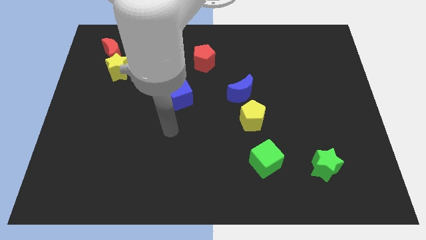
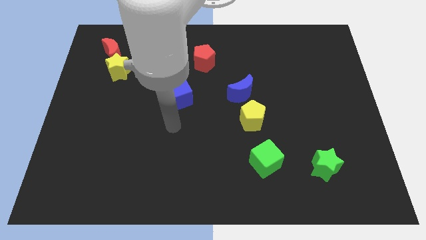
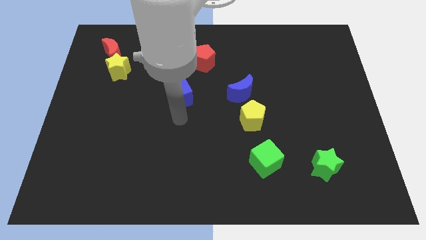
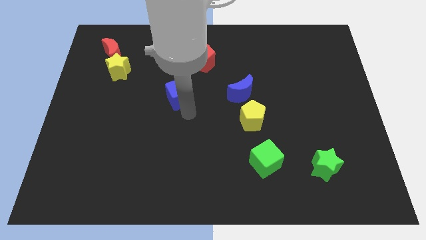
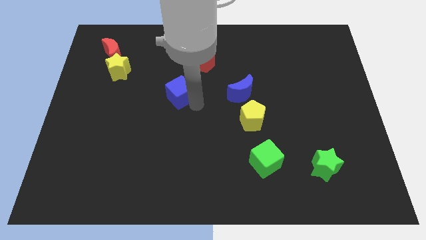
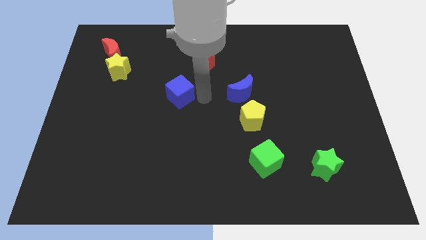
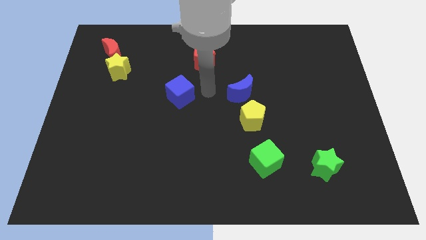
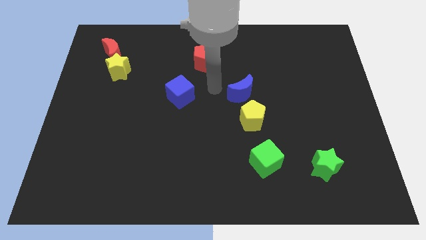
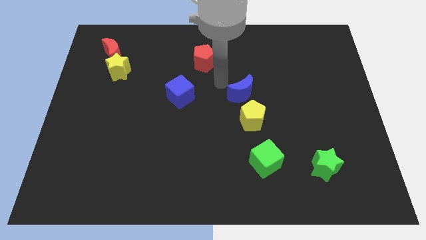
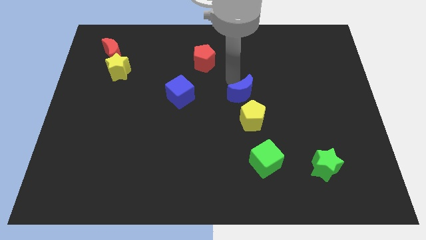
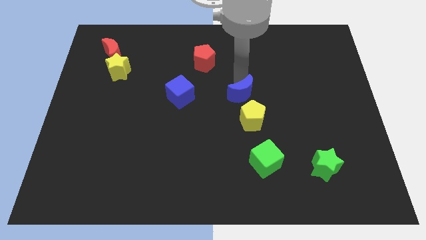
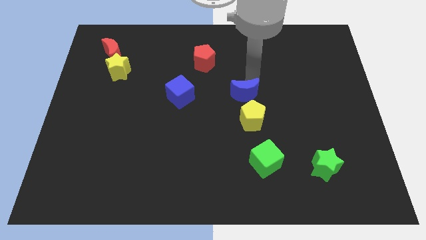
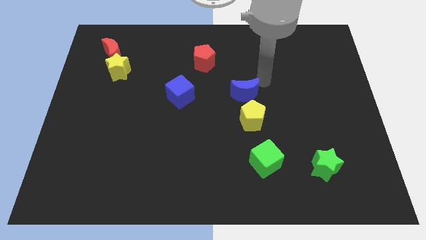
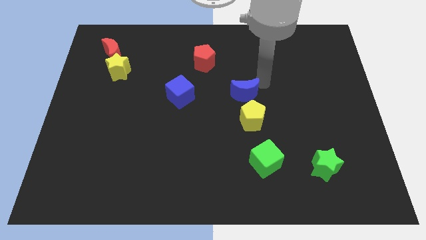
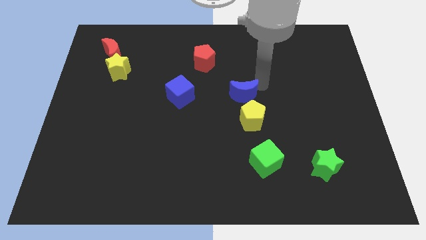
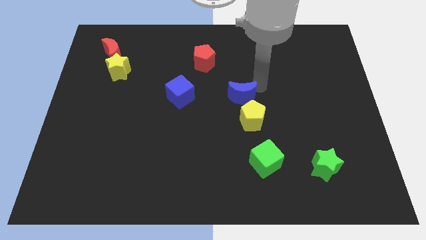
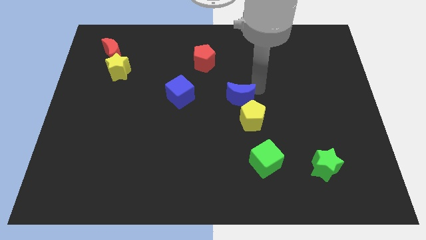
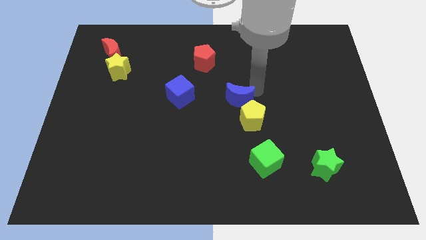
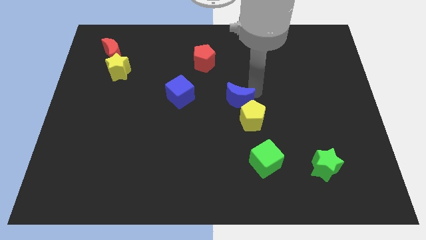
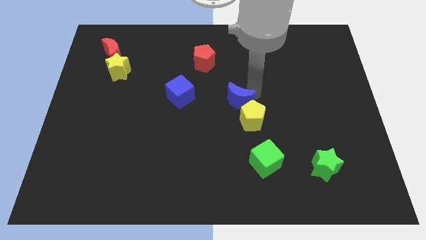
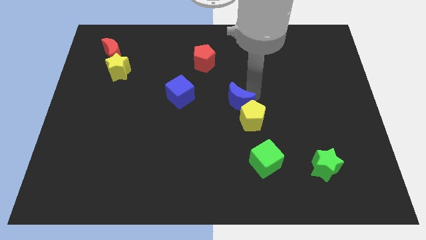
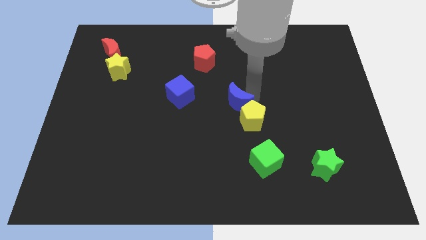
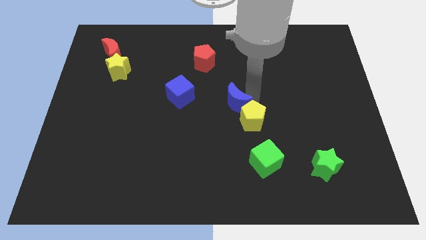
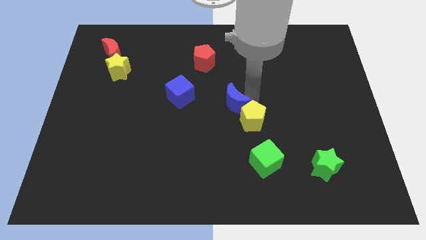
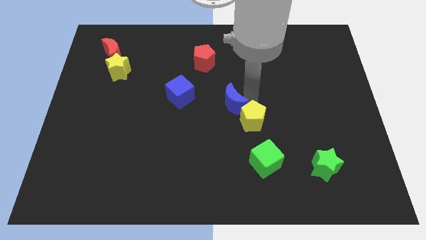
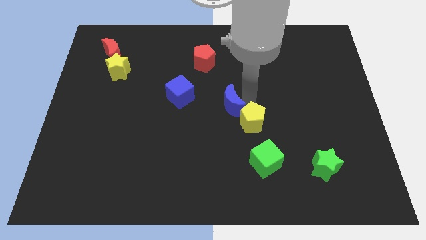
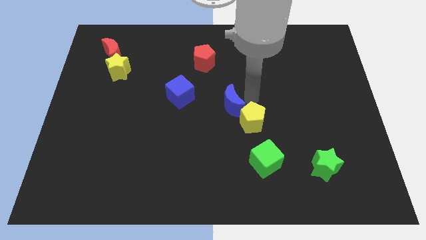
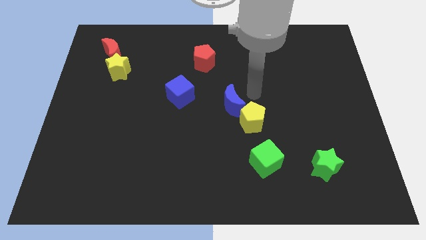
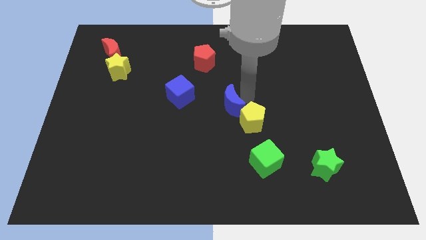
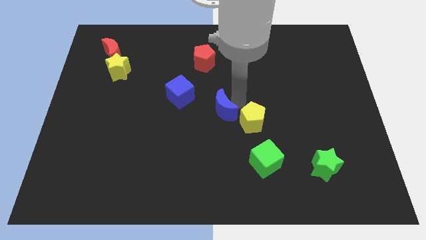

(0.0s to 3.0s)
move the blue moon down and left diagonally a bit

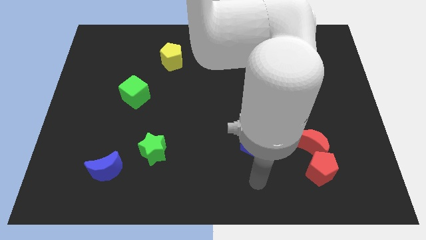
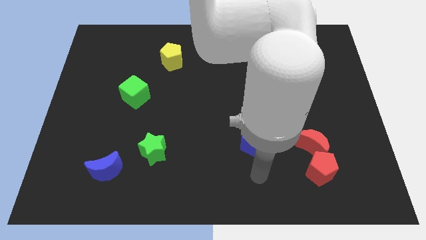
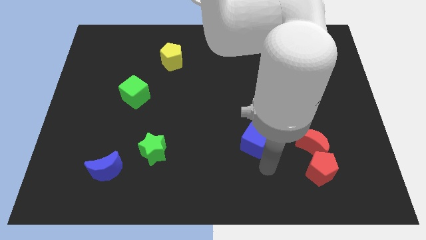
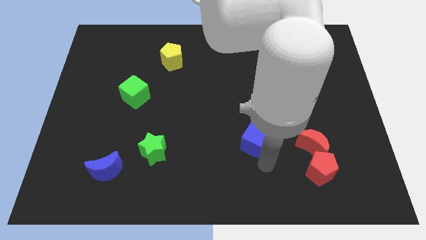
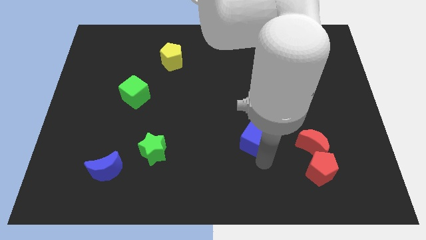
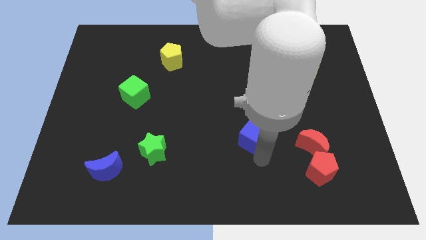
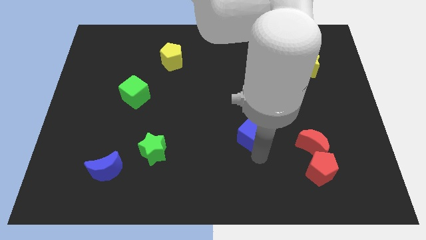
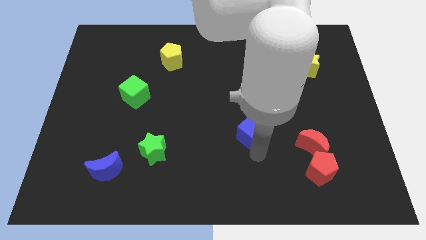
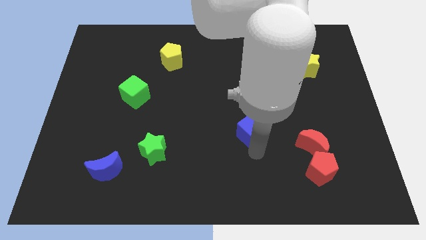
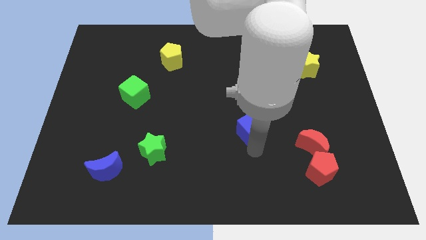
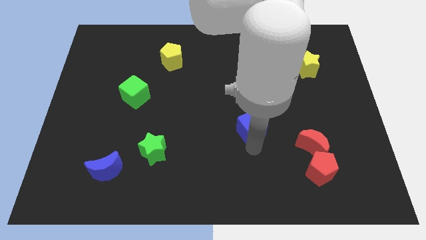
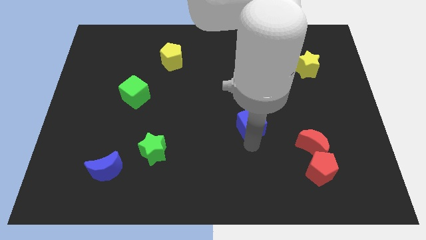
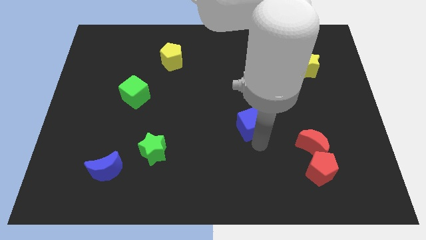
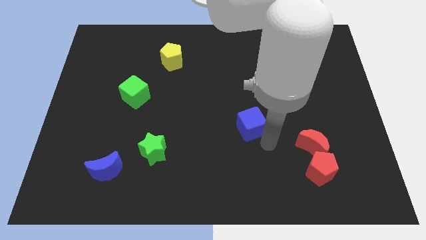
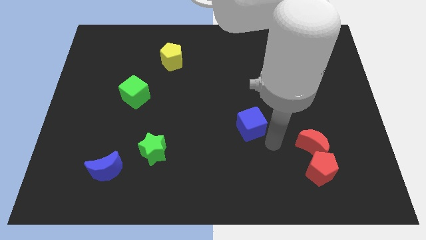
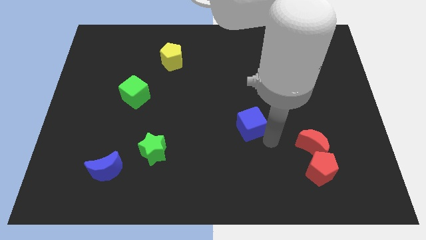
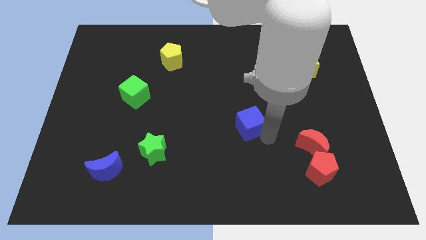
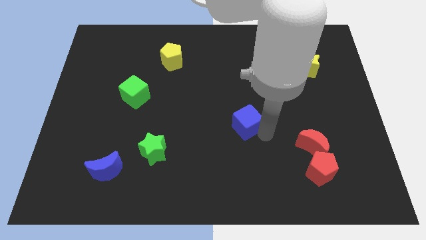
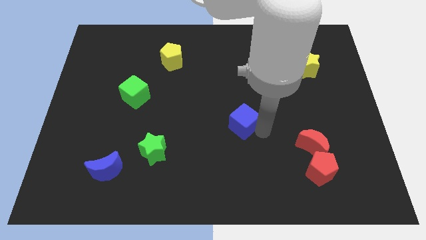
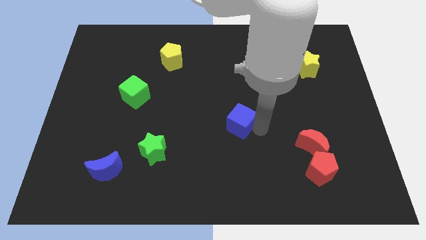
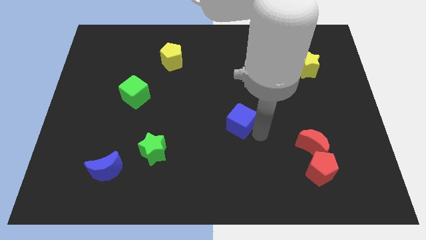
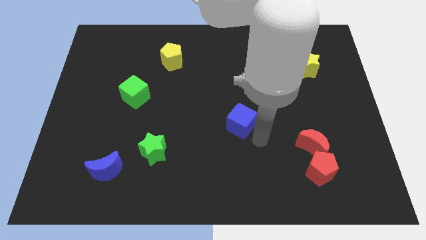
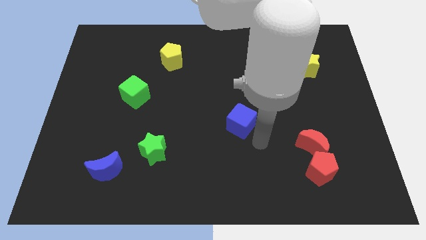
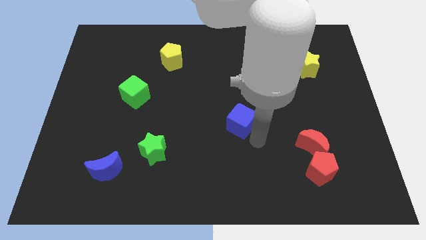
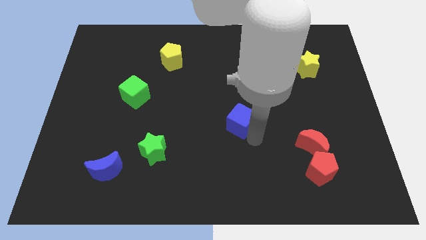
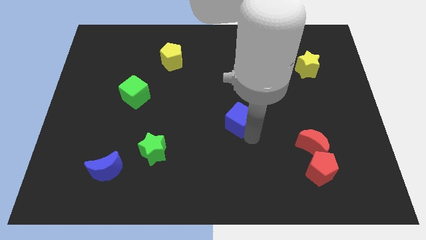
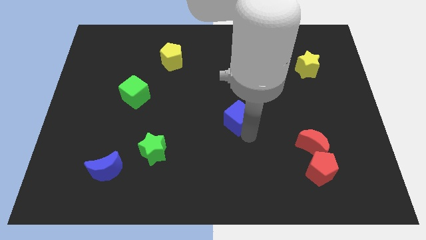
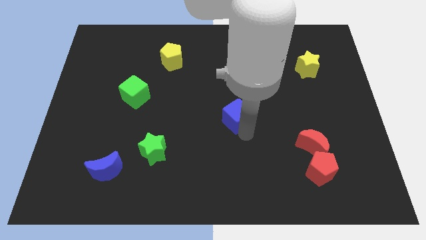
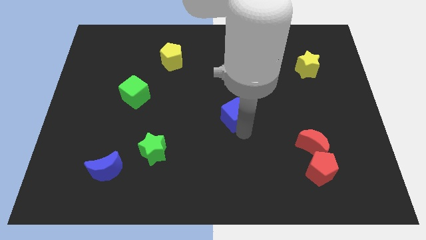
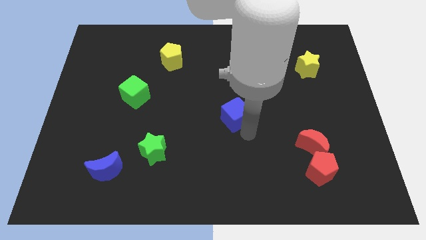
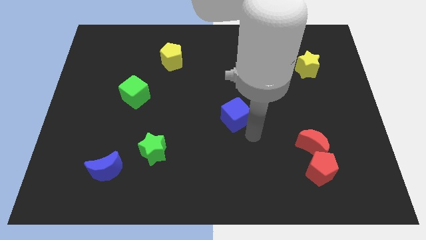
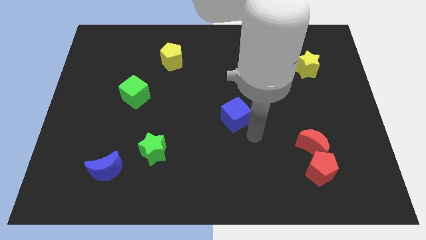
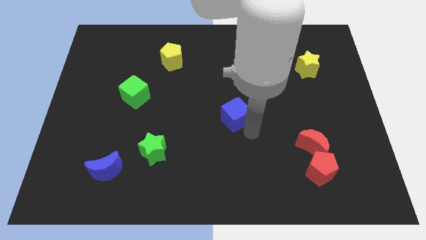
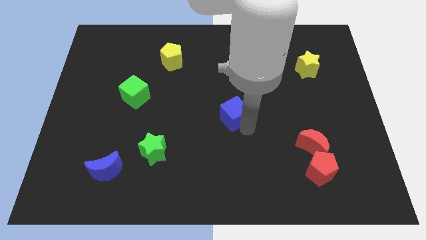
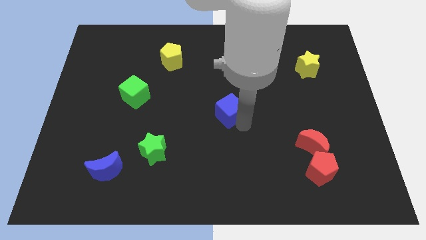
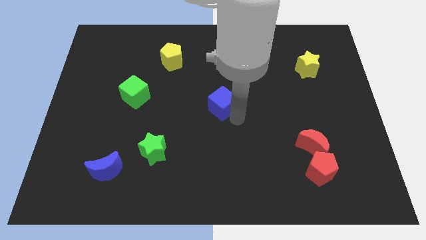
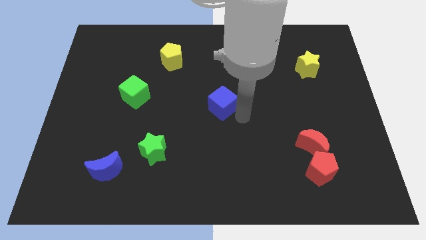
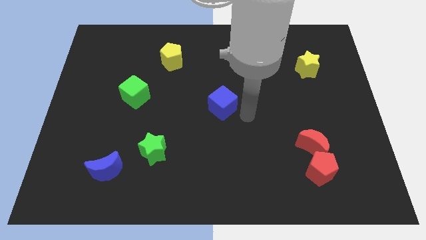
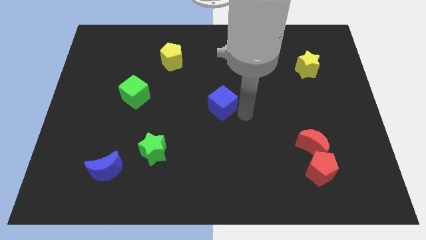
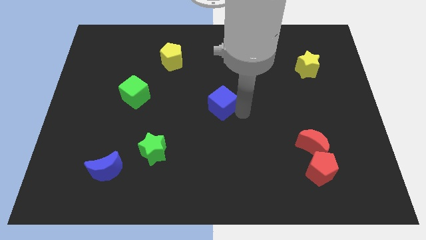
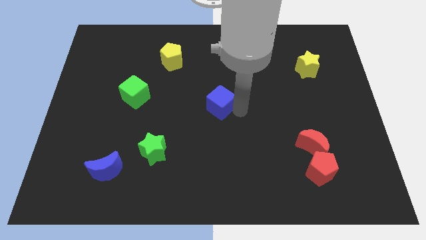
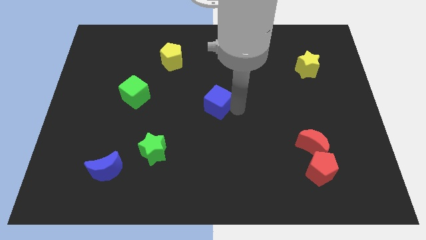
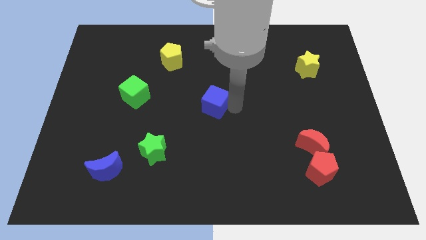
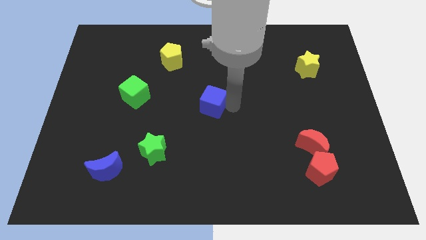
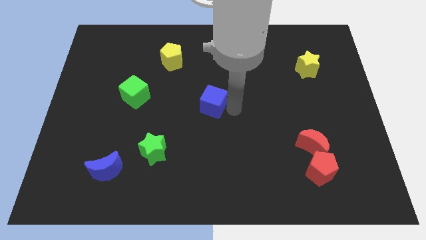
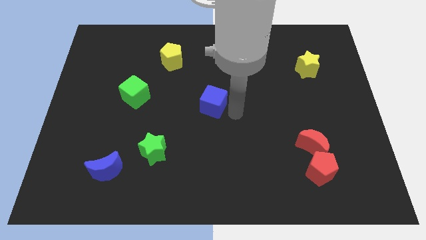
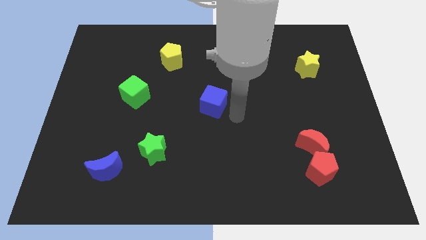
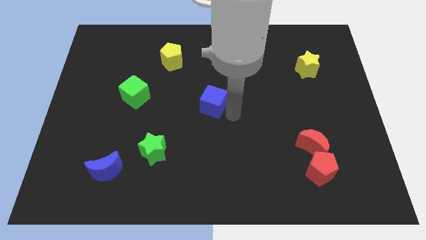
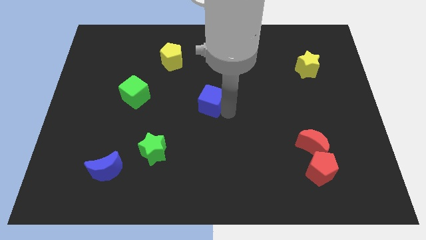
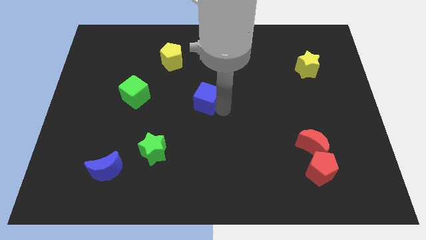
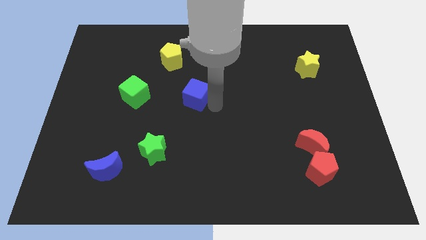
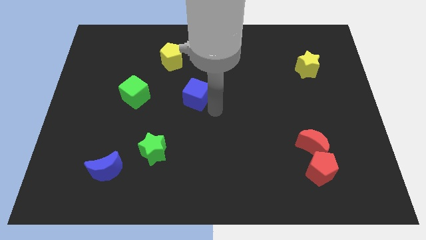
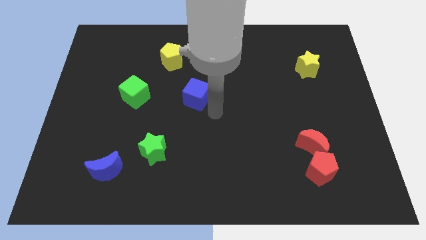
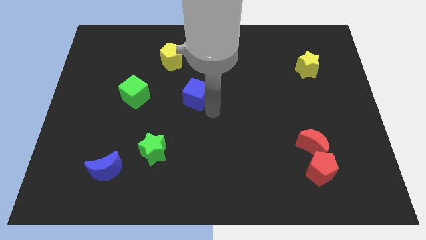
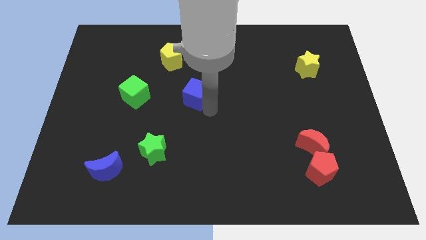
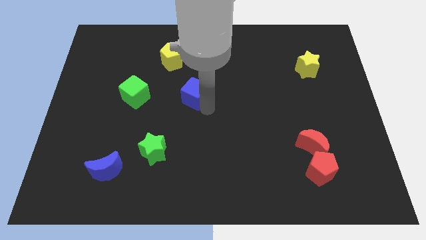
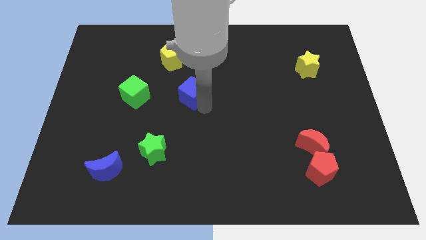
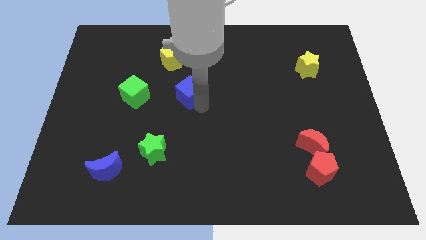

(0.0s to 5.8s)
slide the blue cube upwards and to the left
